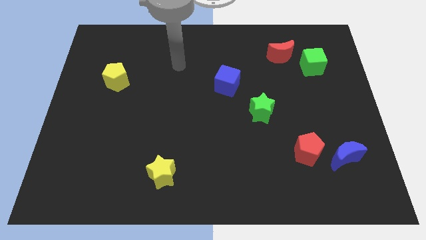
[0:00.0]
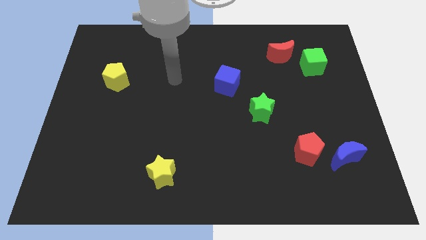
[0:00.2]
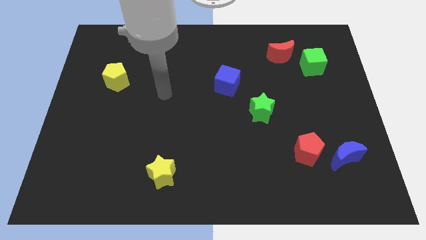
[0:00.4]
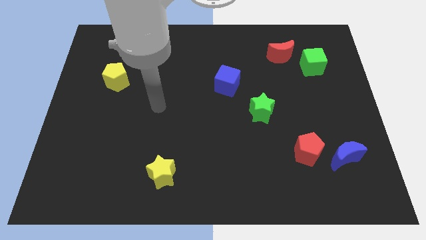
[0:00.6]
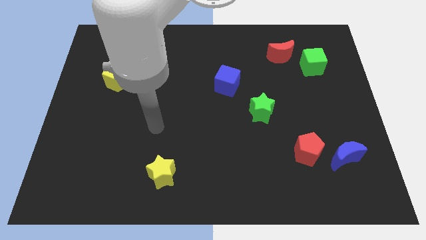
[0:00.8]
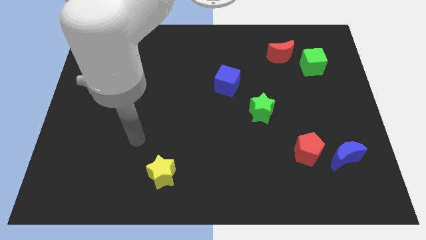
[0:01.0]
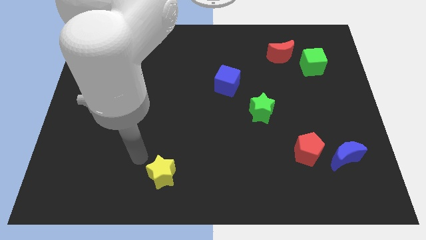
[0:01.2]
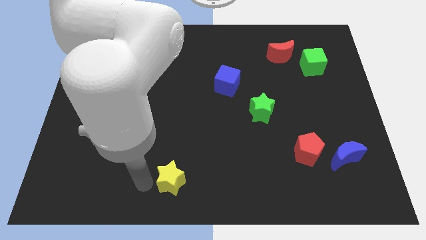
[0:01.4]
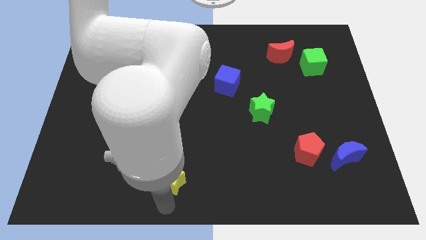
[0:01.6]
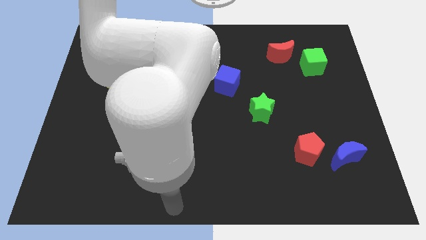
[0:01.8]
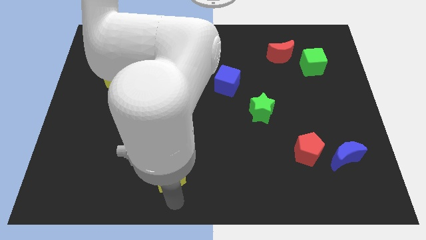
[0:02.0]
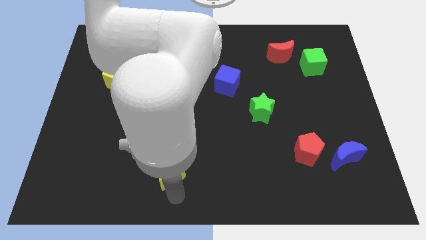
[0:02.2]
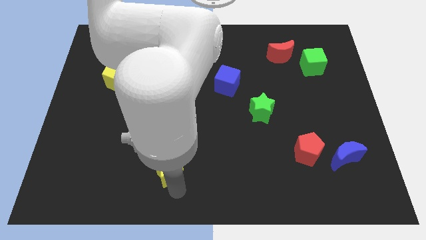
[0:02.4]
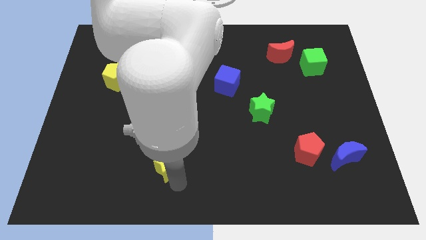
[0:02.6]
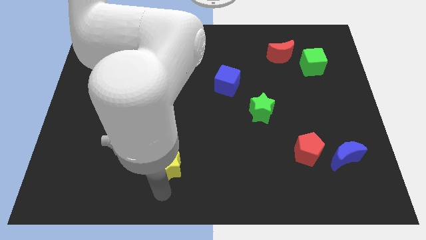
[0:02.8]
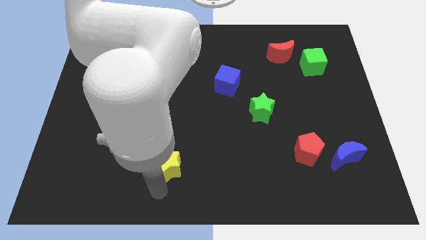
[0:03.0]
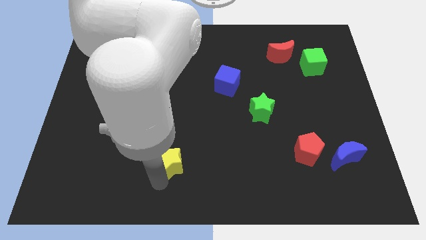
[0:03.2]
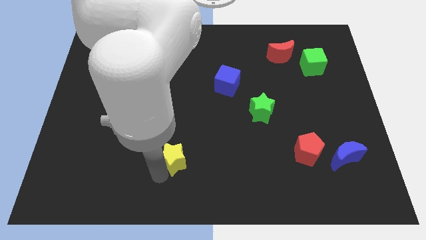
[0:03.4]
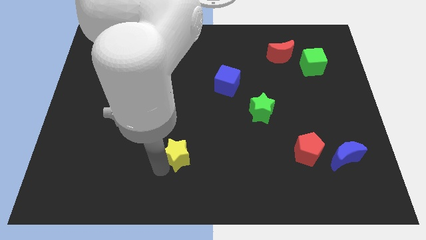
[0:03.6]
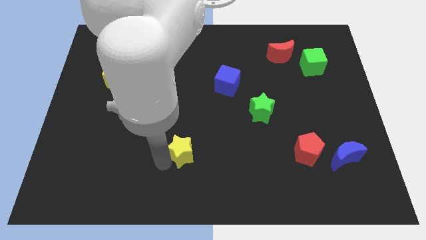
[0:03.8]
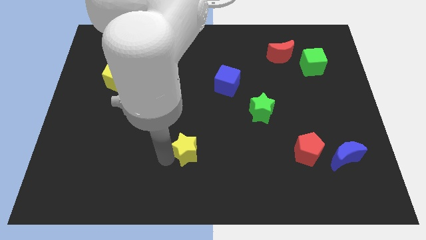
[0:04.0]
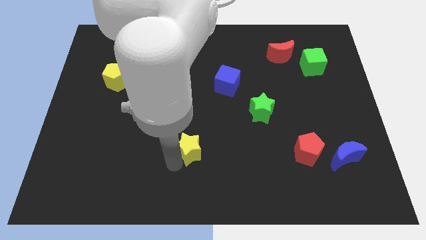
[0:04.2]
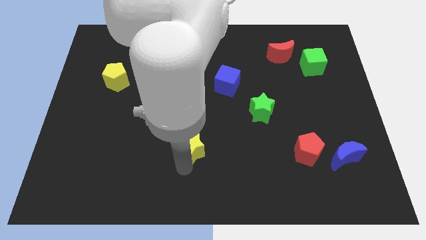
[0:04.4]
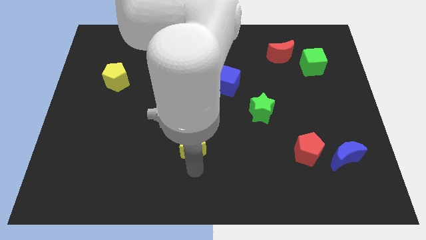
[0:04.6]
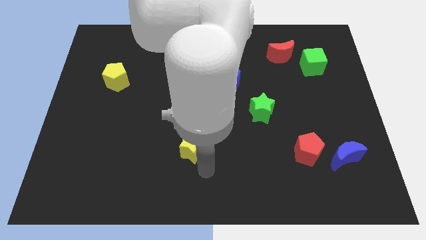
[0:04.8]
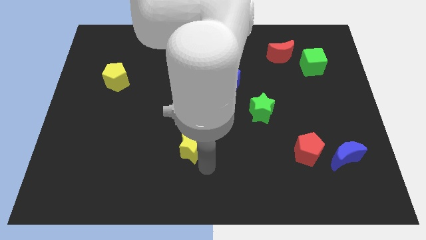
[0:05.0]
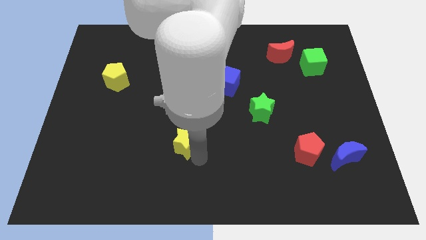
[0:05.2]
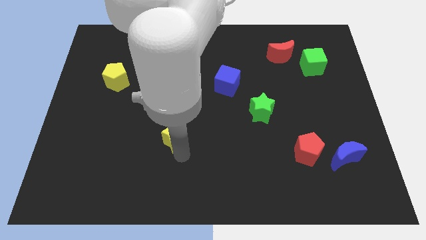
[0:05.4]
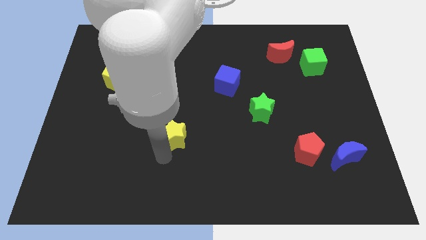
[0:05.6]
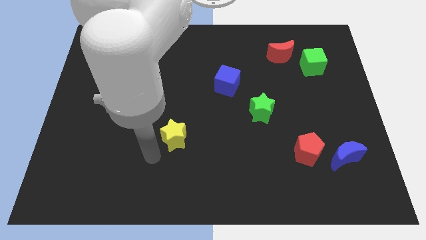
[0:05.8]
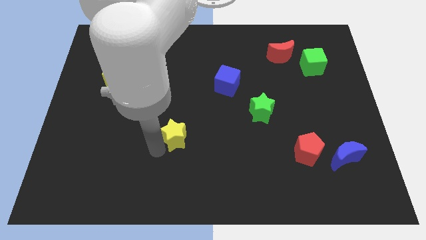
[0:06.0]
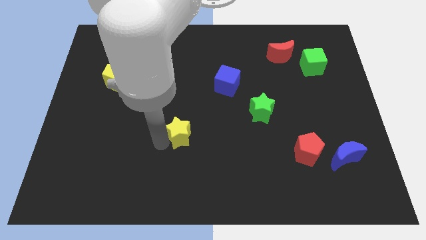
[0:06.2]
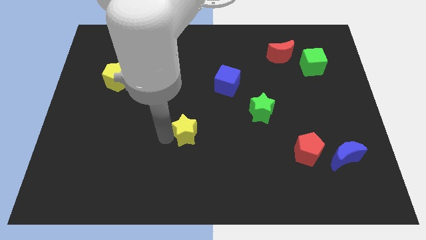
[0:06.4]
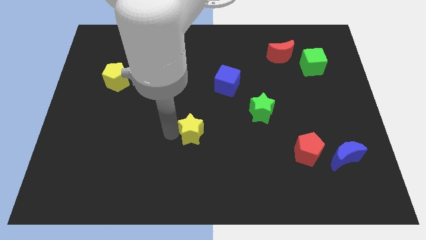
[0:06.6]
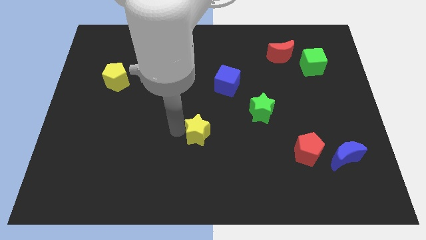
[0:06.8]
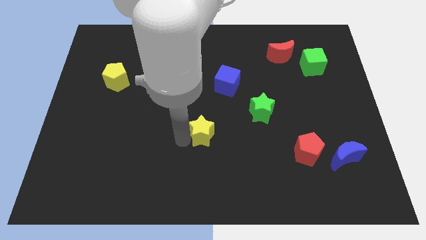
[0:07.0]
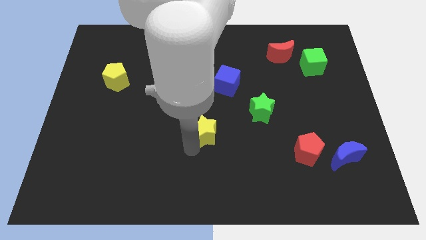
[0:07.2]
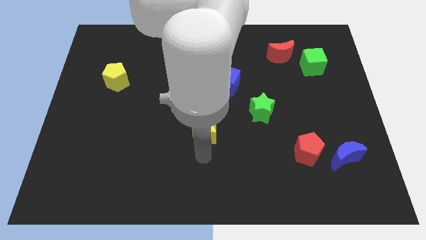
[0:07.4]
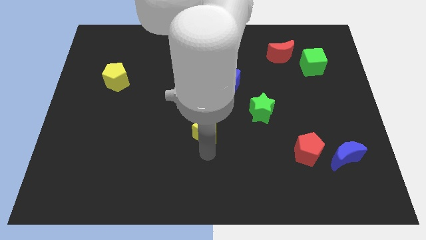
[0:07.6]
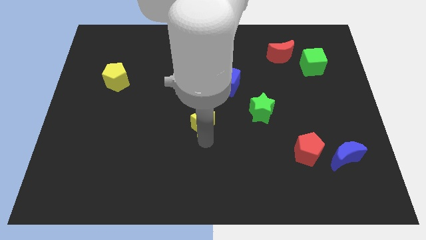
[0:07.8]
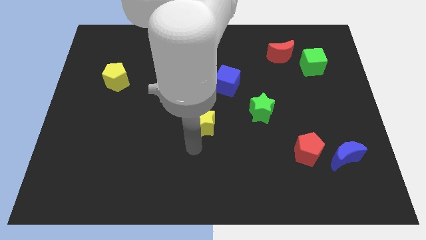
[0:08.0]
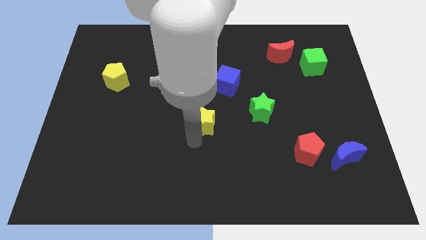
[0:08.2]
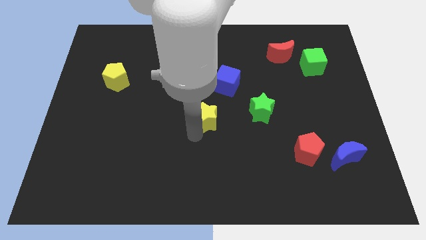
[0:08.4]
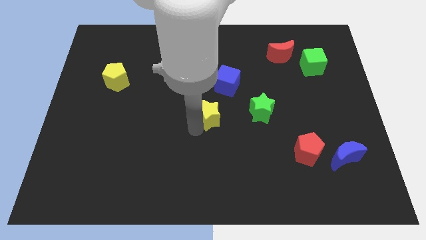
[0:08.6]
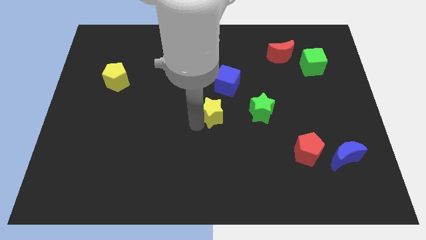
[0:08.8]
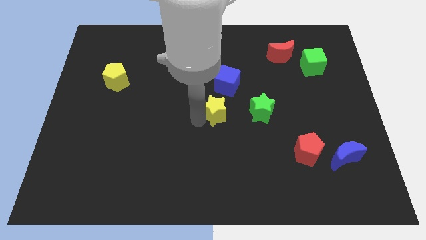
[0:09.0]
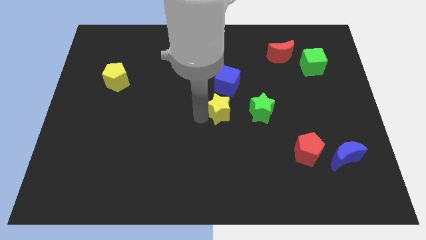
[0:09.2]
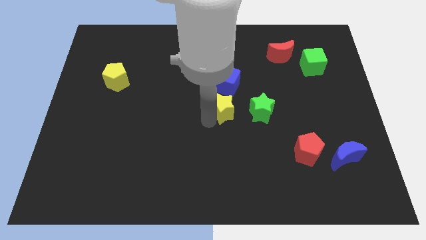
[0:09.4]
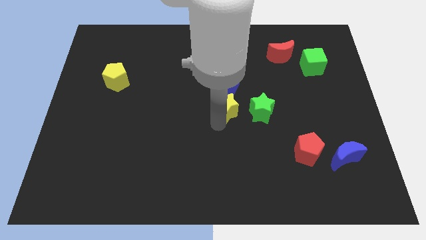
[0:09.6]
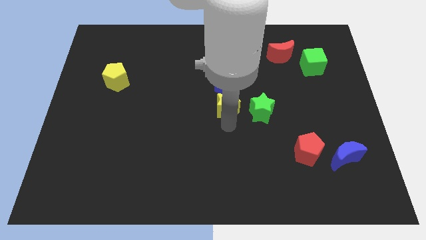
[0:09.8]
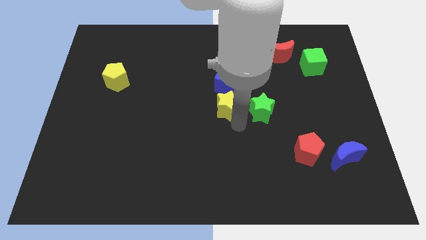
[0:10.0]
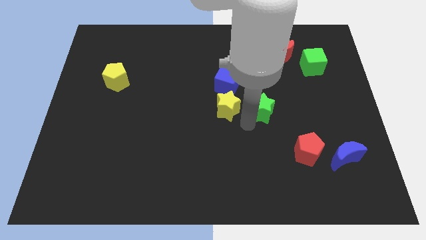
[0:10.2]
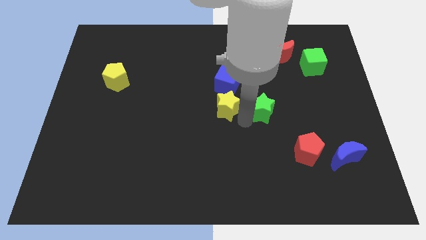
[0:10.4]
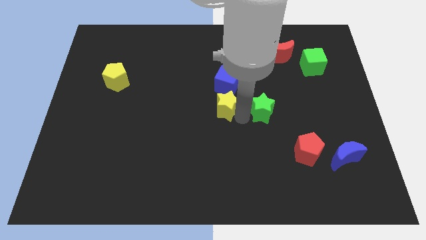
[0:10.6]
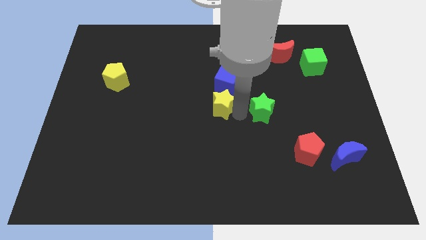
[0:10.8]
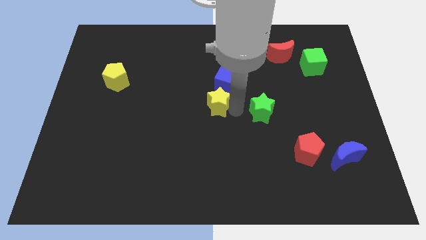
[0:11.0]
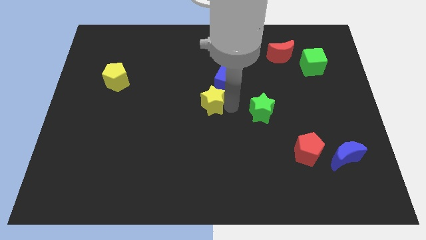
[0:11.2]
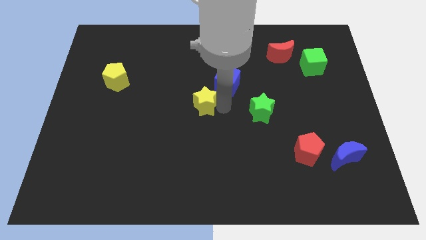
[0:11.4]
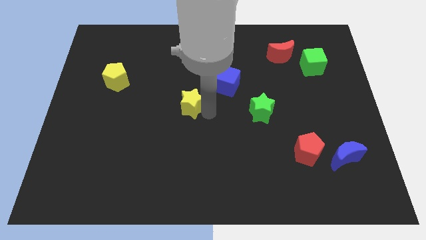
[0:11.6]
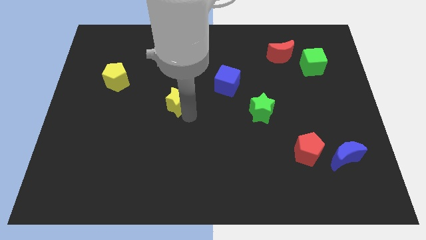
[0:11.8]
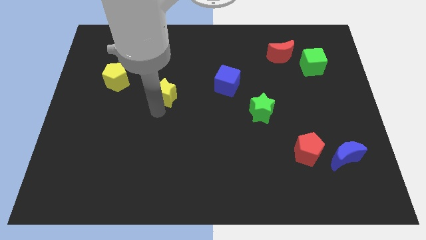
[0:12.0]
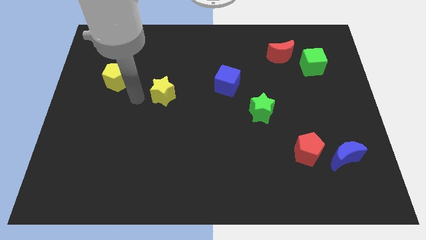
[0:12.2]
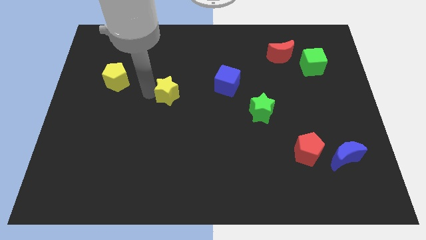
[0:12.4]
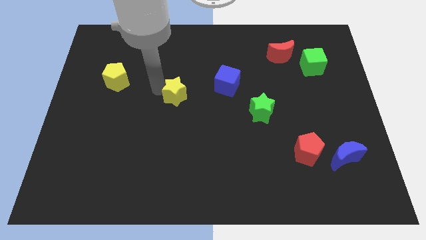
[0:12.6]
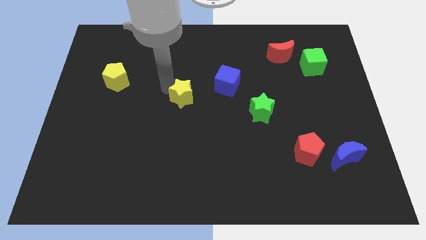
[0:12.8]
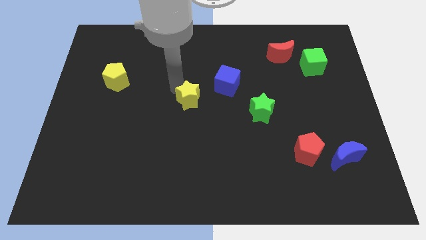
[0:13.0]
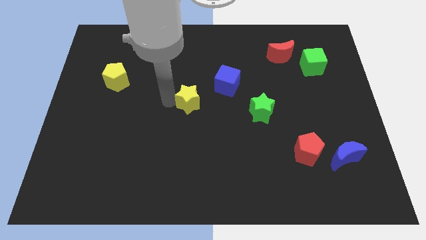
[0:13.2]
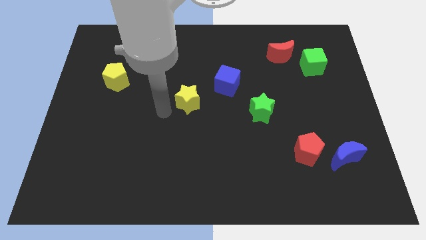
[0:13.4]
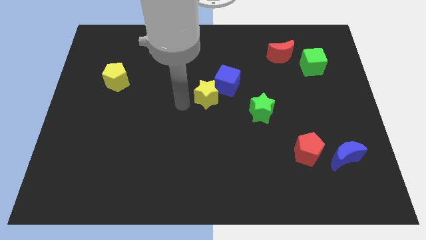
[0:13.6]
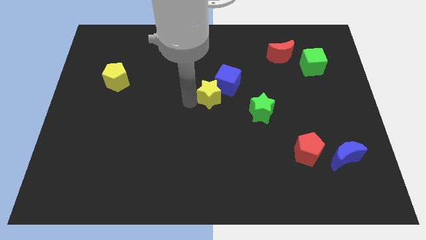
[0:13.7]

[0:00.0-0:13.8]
push the yellow star next to the blue cube
